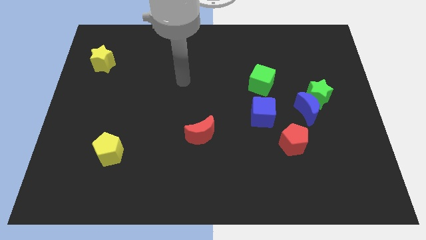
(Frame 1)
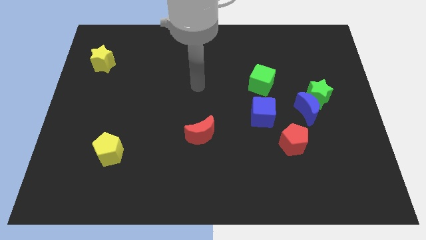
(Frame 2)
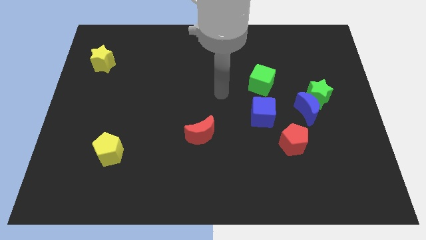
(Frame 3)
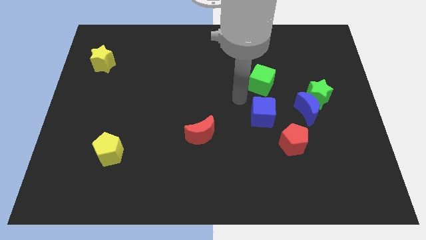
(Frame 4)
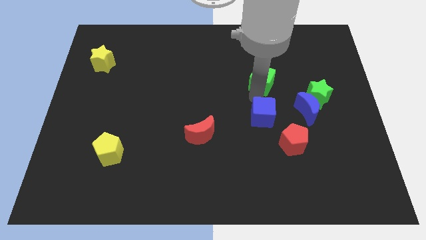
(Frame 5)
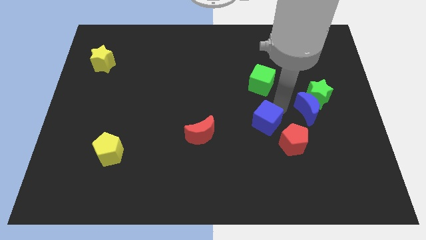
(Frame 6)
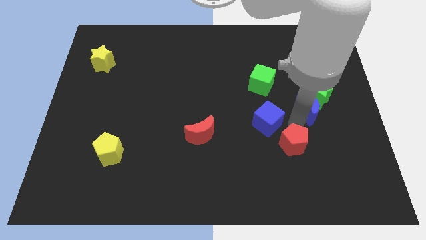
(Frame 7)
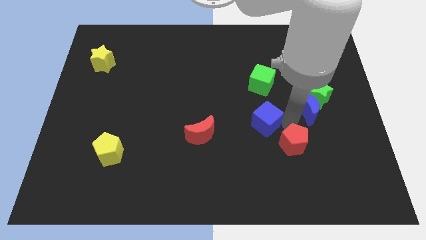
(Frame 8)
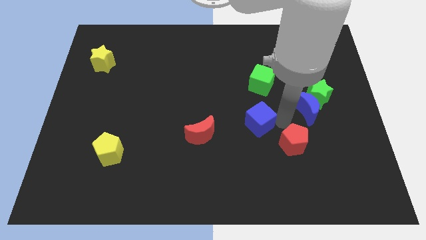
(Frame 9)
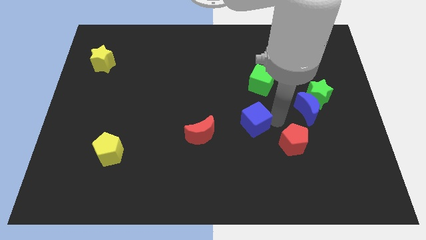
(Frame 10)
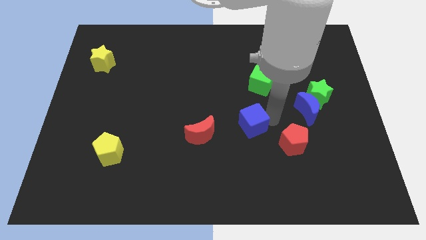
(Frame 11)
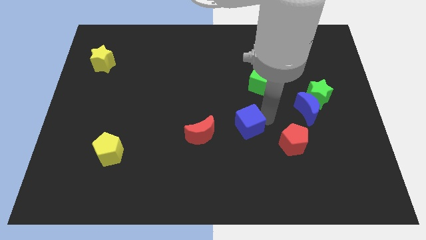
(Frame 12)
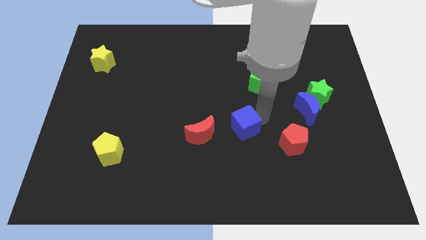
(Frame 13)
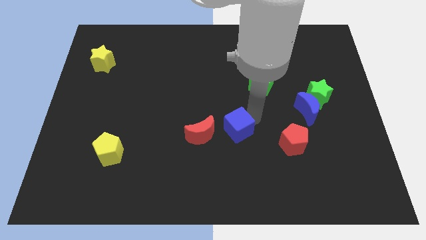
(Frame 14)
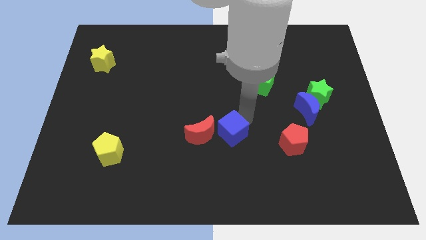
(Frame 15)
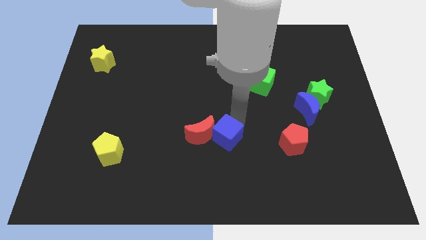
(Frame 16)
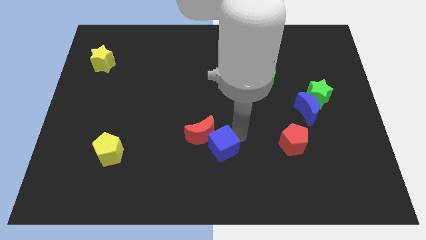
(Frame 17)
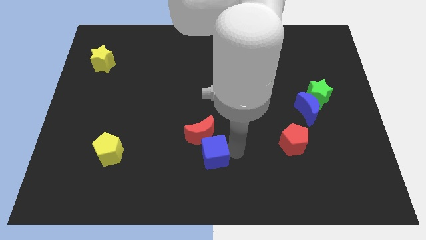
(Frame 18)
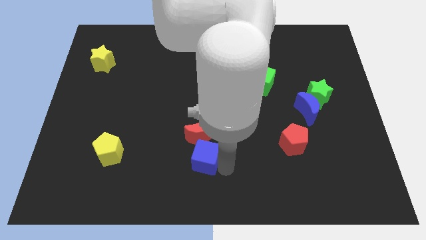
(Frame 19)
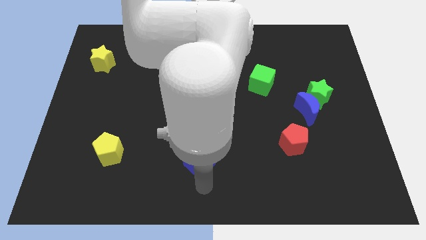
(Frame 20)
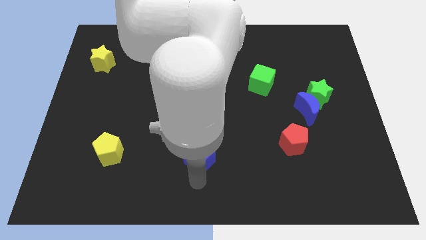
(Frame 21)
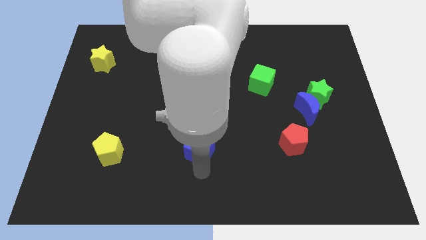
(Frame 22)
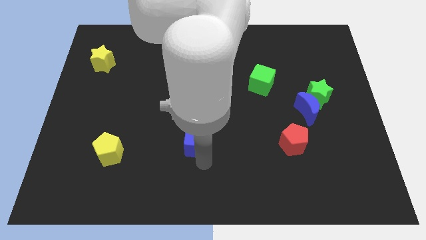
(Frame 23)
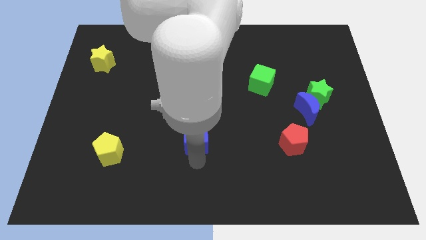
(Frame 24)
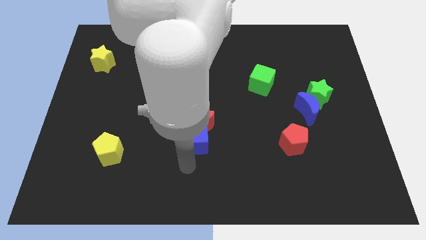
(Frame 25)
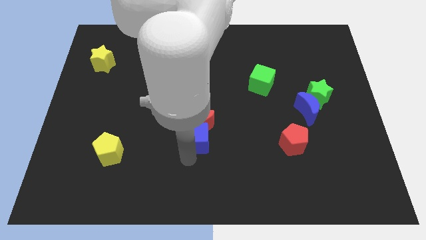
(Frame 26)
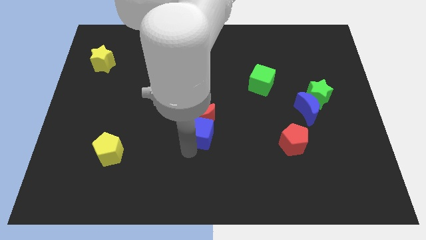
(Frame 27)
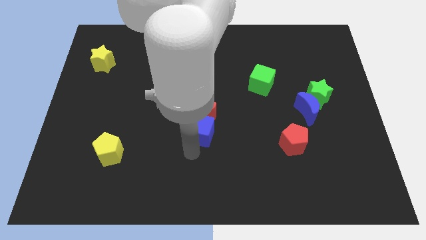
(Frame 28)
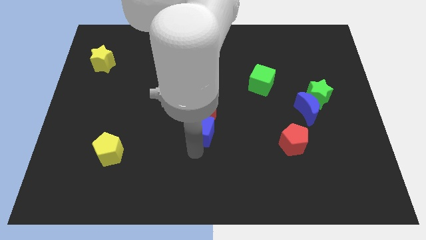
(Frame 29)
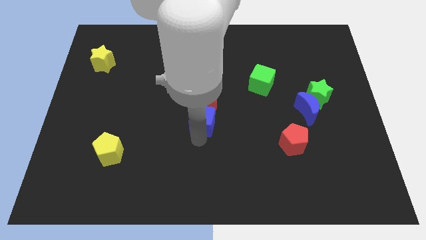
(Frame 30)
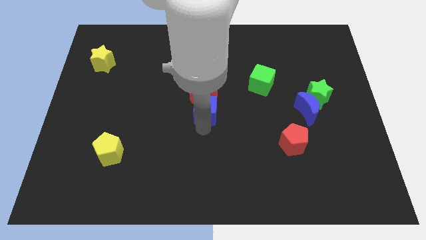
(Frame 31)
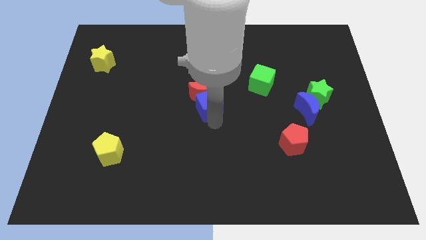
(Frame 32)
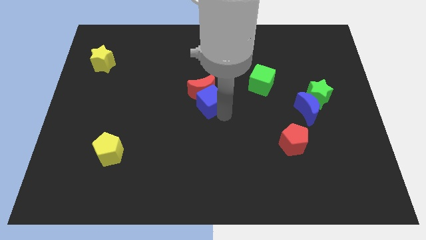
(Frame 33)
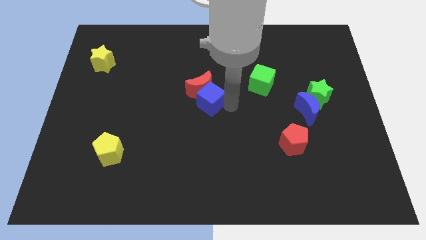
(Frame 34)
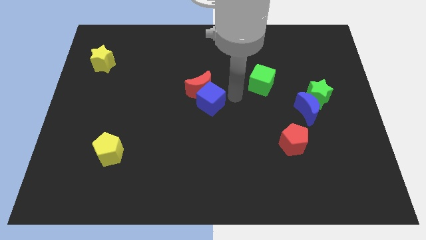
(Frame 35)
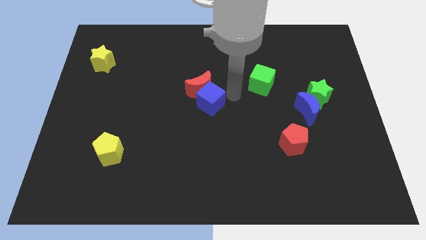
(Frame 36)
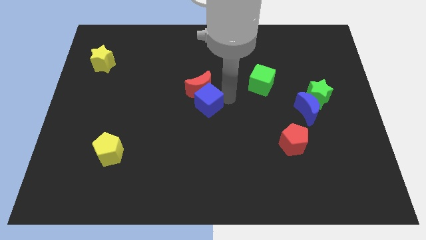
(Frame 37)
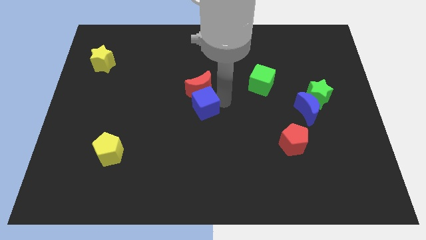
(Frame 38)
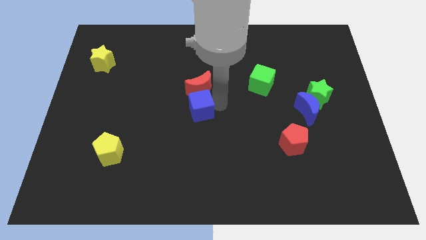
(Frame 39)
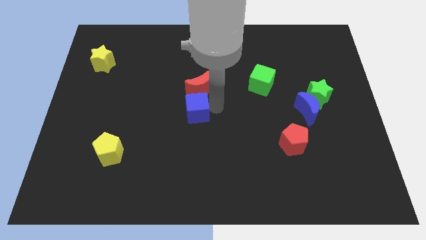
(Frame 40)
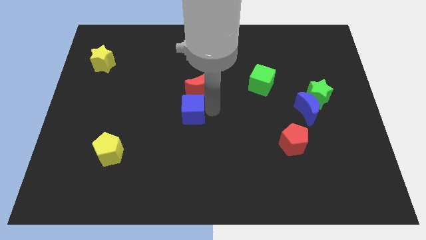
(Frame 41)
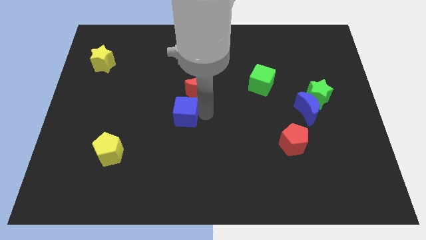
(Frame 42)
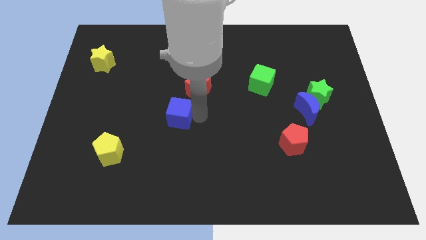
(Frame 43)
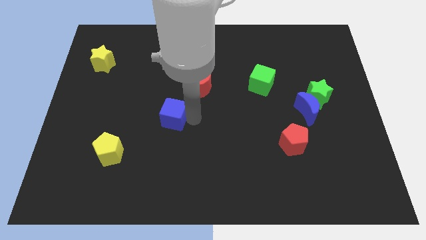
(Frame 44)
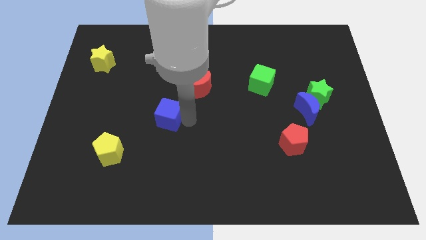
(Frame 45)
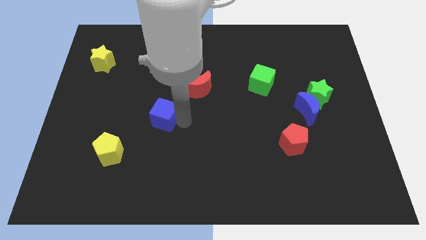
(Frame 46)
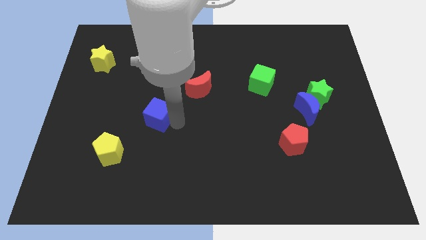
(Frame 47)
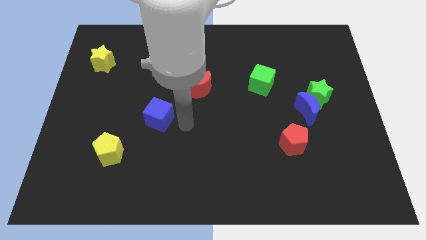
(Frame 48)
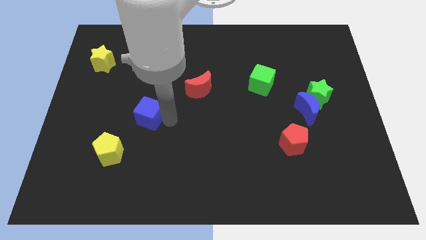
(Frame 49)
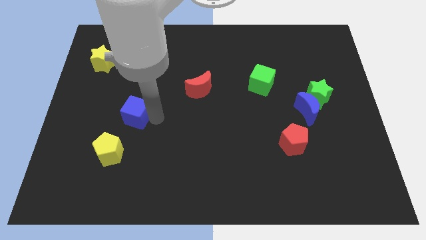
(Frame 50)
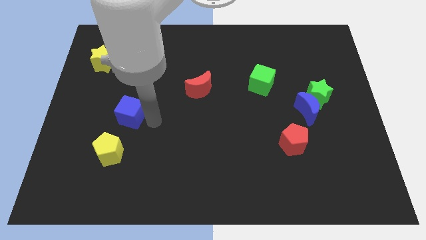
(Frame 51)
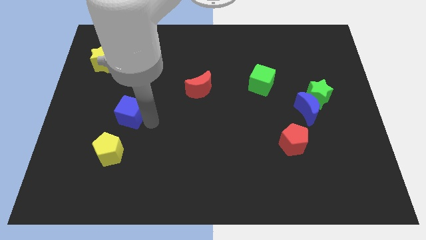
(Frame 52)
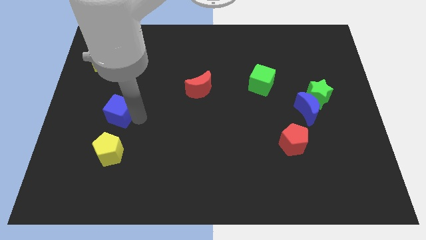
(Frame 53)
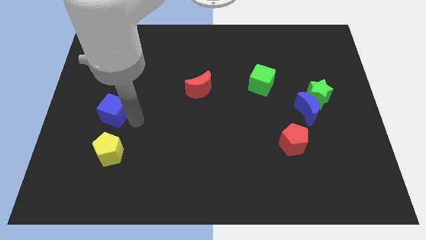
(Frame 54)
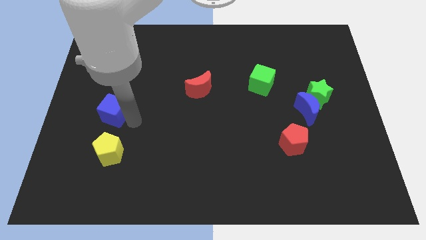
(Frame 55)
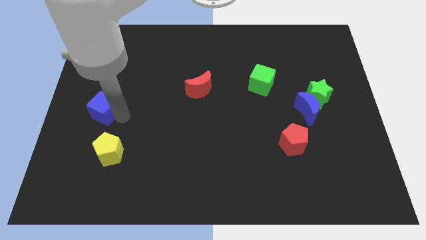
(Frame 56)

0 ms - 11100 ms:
push the blue cube to the left side of the board

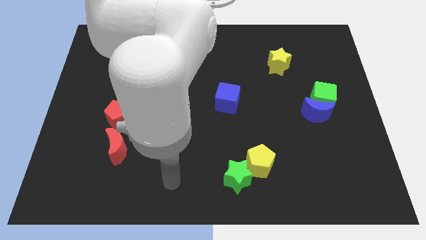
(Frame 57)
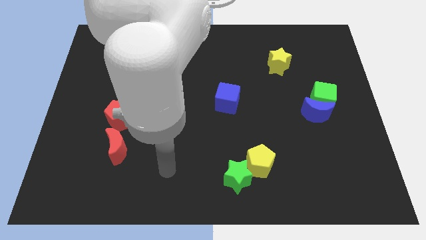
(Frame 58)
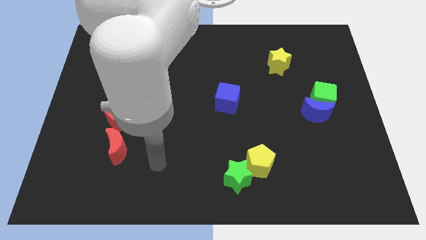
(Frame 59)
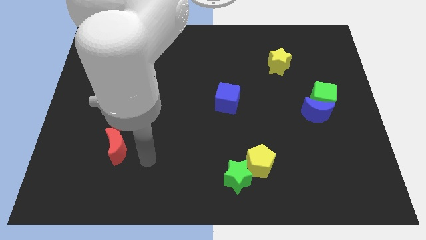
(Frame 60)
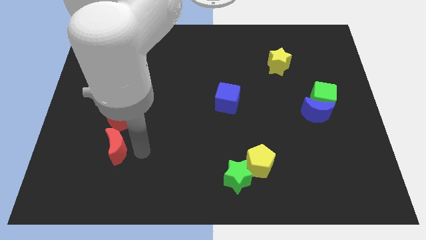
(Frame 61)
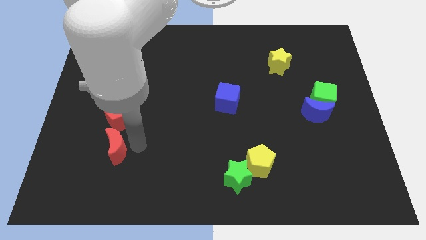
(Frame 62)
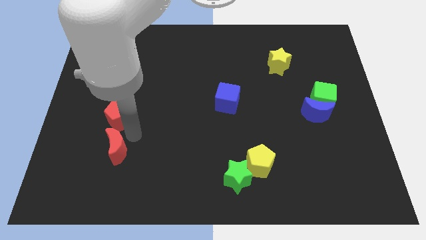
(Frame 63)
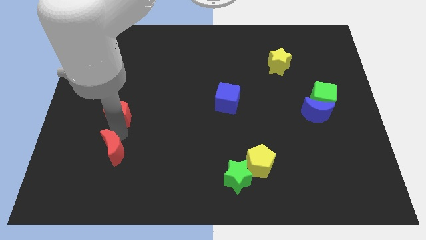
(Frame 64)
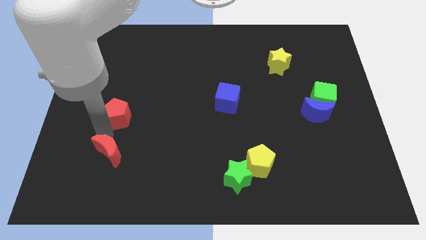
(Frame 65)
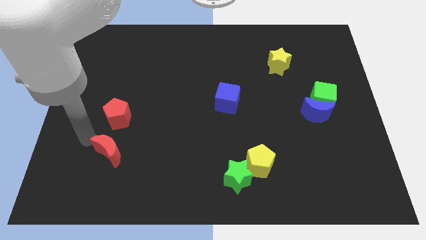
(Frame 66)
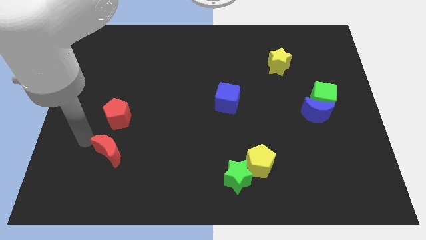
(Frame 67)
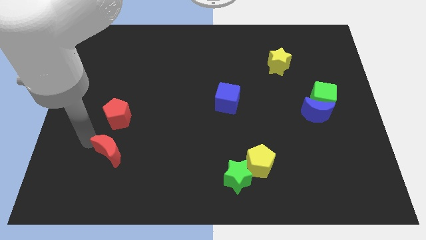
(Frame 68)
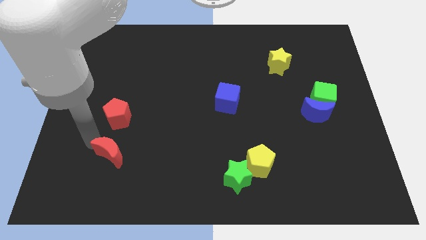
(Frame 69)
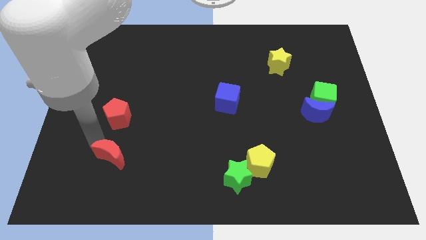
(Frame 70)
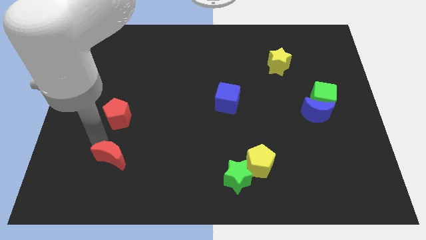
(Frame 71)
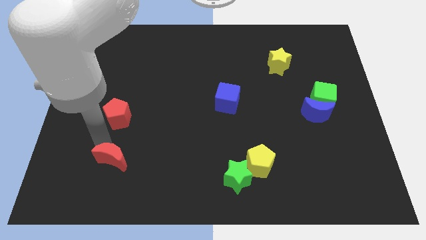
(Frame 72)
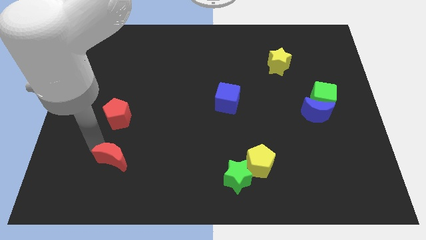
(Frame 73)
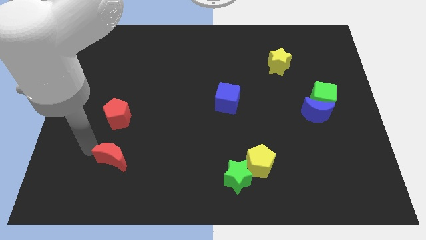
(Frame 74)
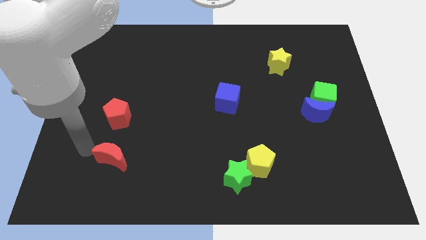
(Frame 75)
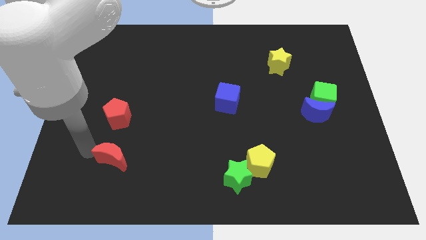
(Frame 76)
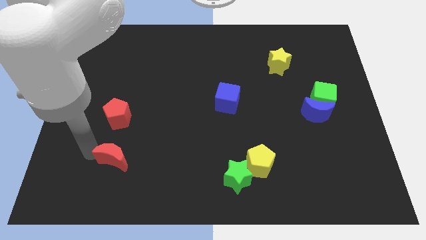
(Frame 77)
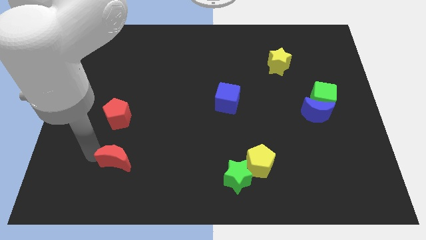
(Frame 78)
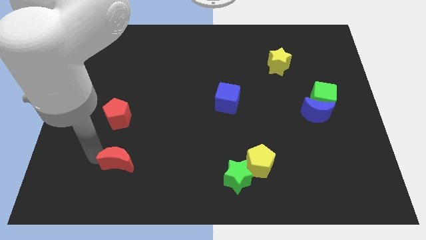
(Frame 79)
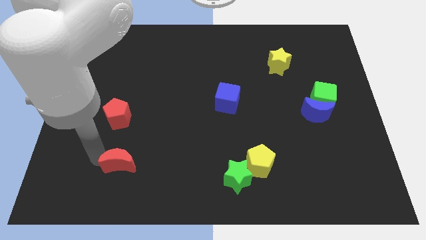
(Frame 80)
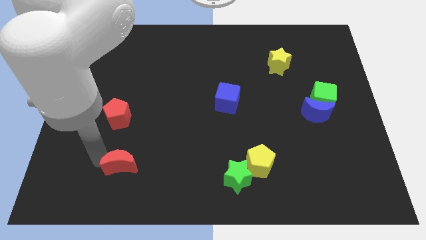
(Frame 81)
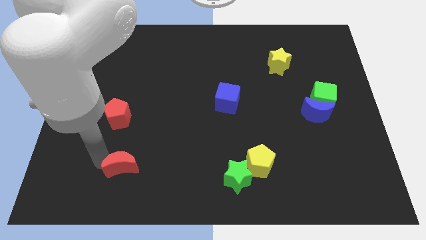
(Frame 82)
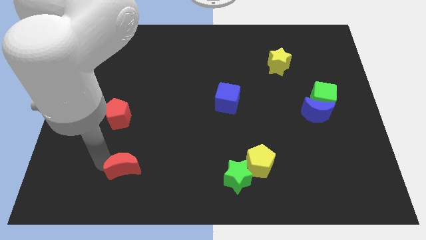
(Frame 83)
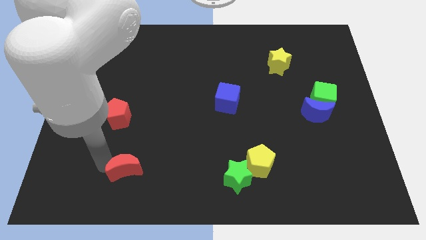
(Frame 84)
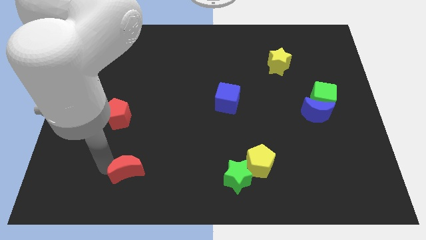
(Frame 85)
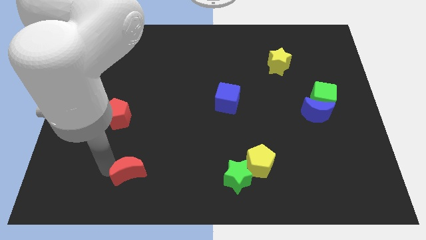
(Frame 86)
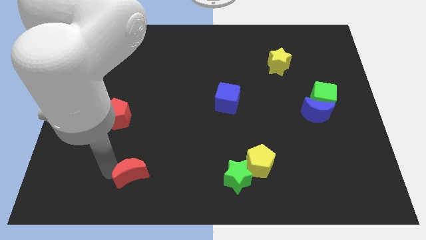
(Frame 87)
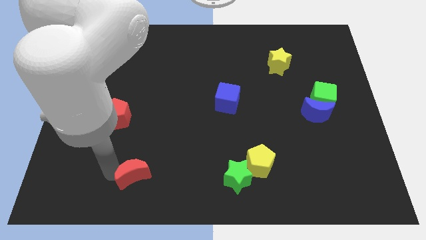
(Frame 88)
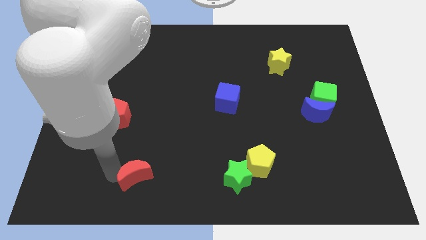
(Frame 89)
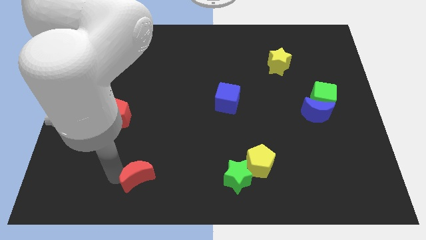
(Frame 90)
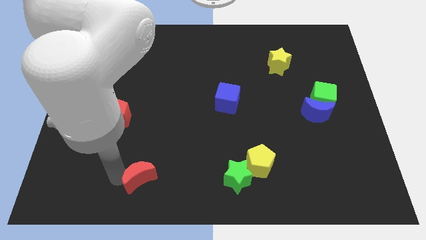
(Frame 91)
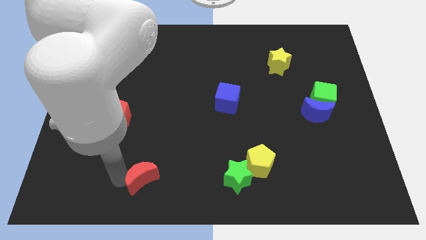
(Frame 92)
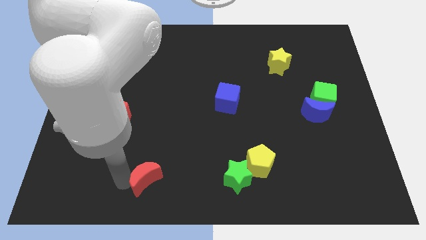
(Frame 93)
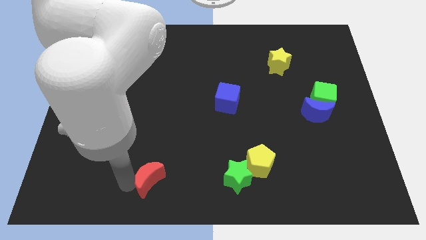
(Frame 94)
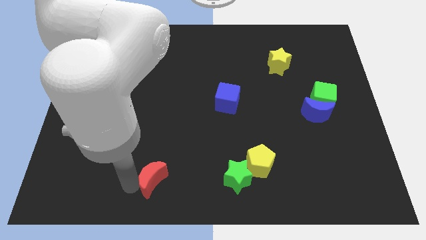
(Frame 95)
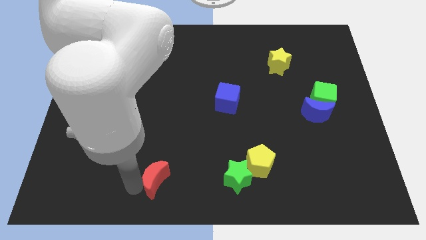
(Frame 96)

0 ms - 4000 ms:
put the red moon to the bottom
